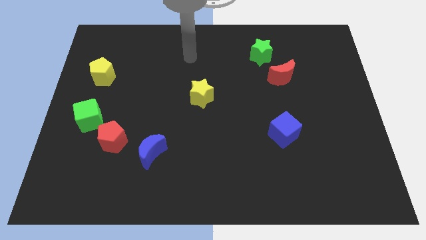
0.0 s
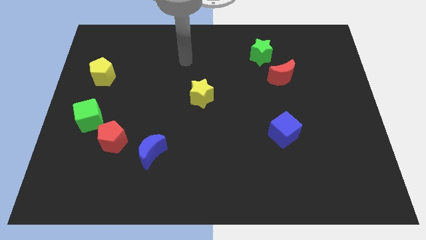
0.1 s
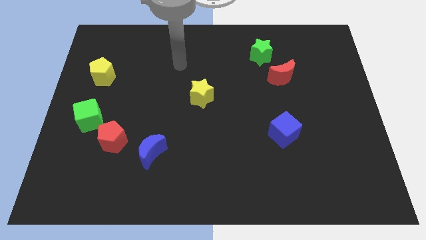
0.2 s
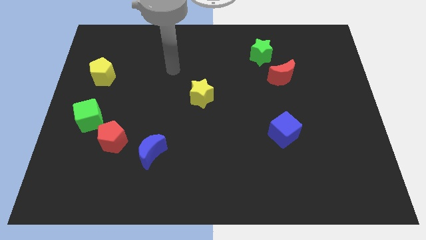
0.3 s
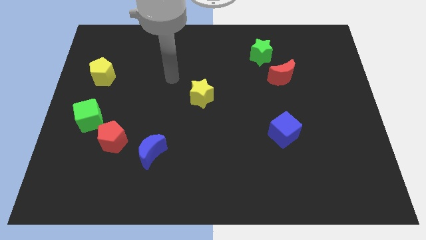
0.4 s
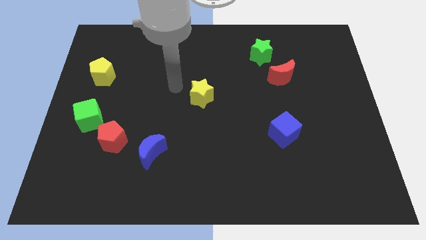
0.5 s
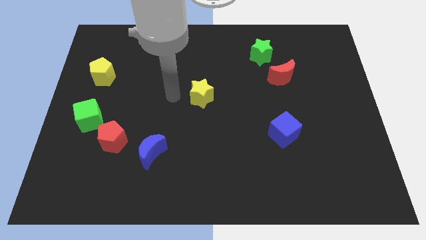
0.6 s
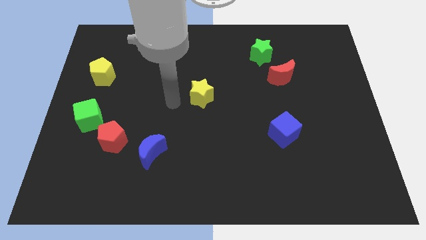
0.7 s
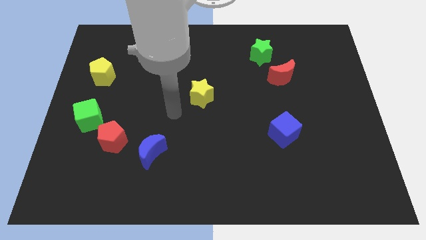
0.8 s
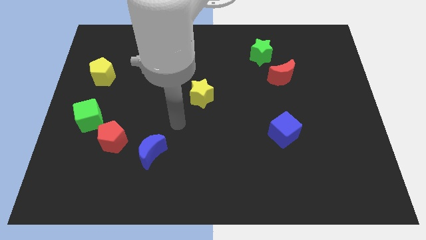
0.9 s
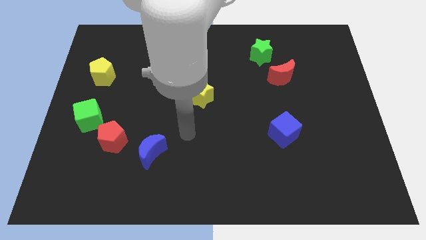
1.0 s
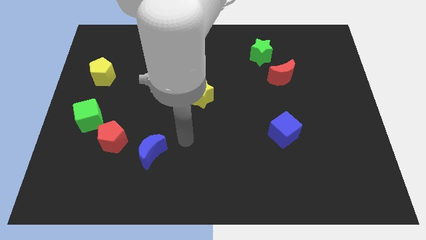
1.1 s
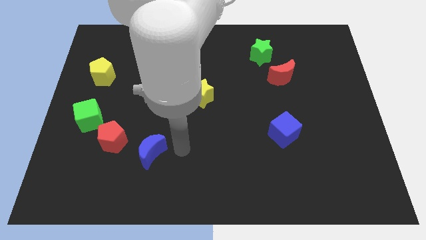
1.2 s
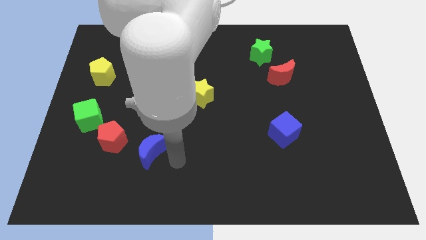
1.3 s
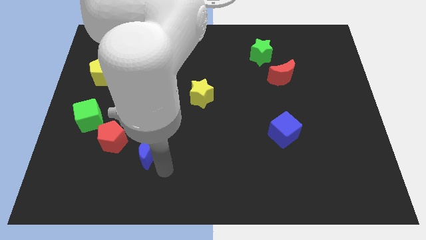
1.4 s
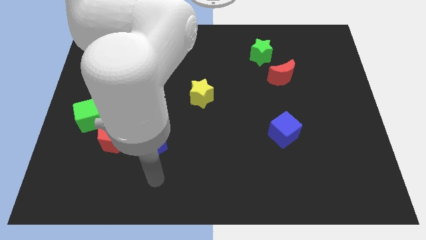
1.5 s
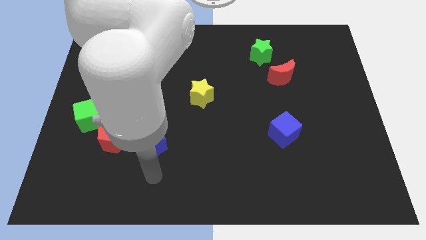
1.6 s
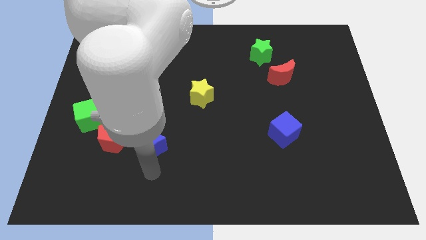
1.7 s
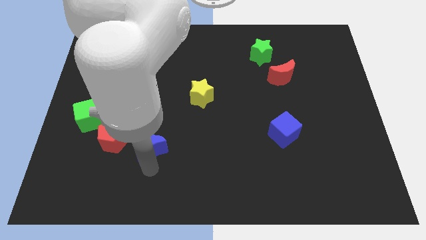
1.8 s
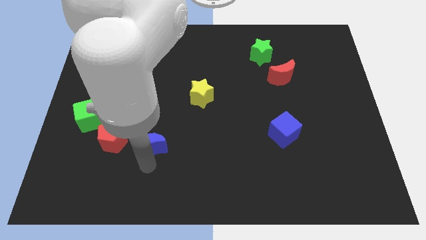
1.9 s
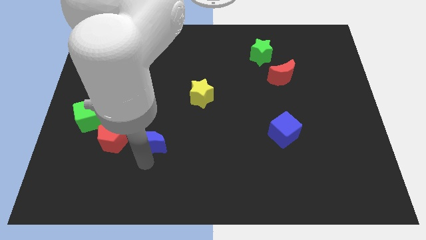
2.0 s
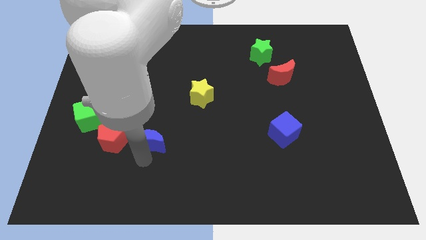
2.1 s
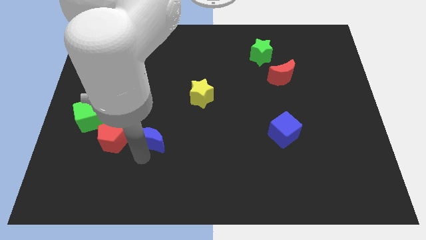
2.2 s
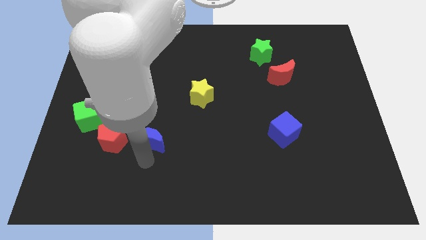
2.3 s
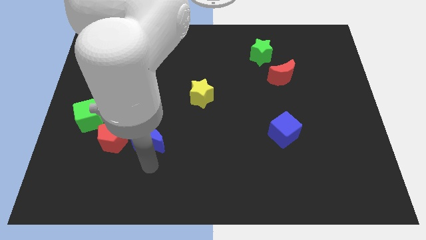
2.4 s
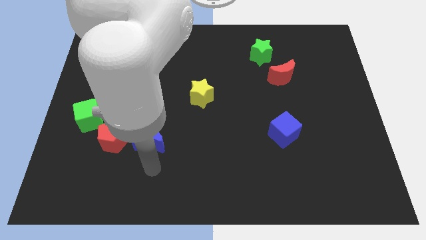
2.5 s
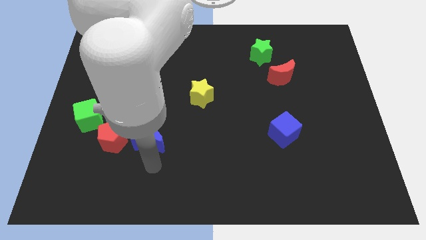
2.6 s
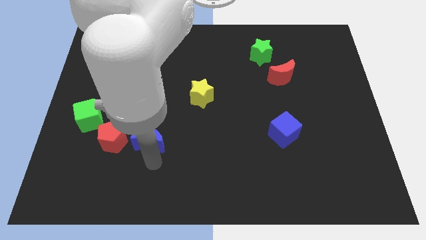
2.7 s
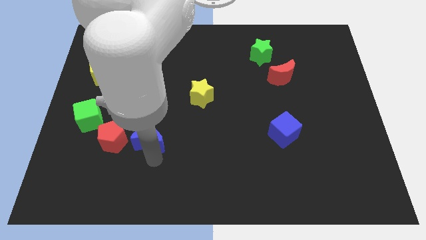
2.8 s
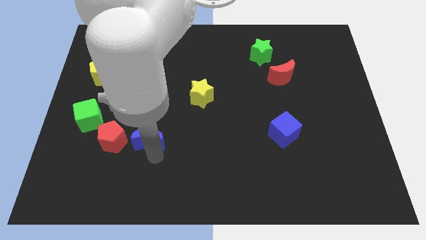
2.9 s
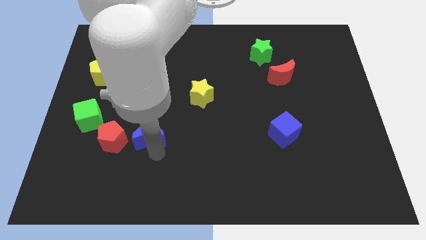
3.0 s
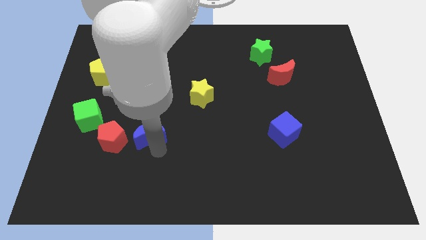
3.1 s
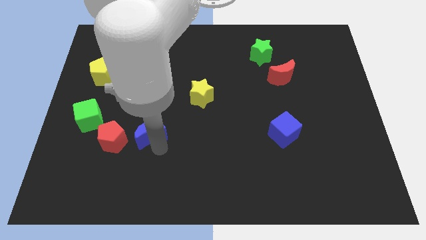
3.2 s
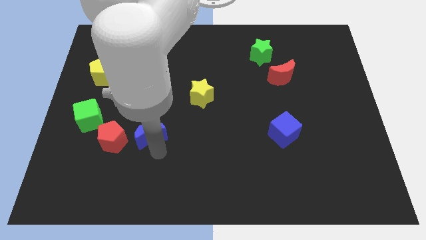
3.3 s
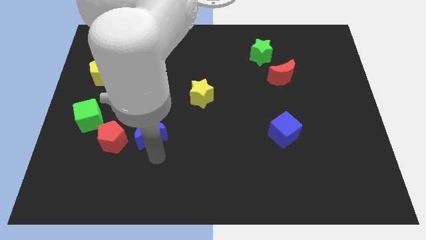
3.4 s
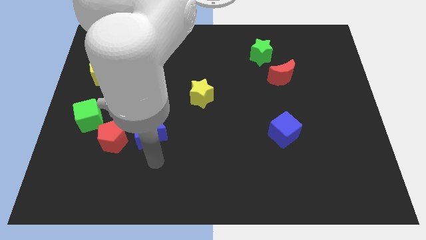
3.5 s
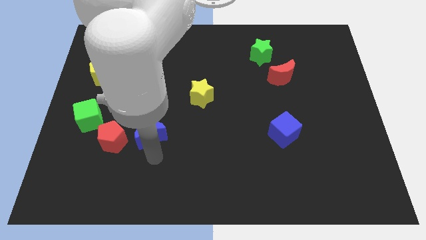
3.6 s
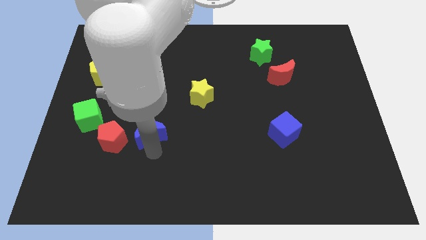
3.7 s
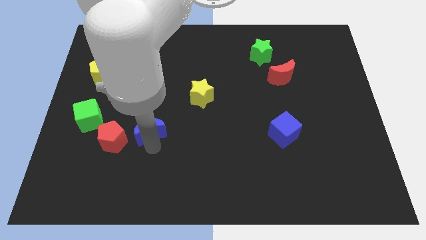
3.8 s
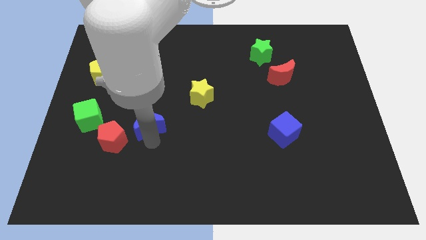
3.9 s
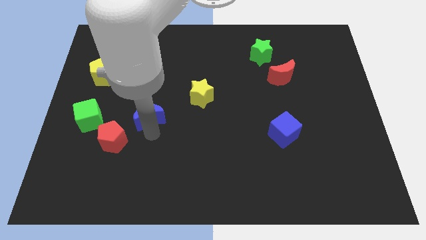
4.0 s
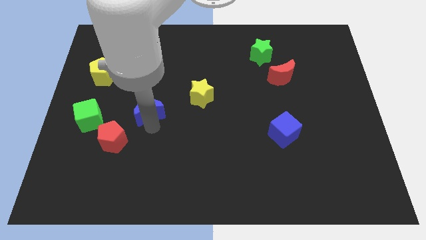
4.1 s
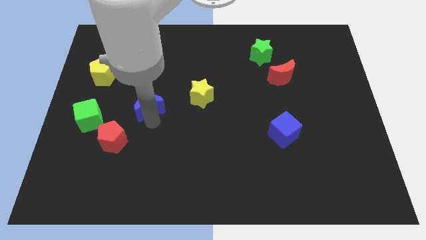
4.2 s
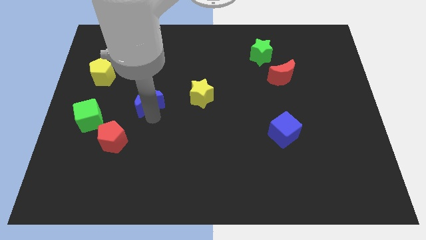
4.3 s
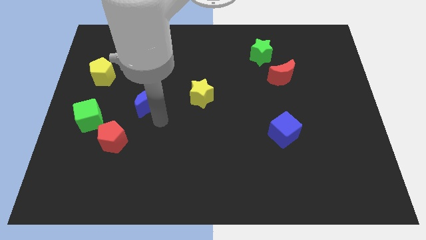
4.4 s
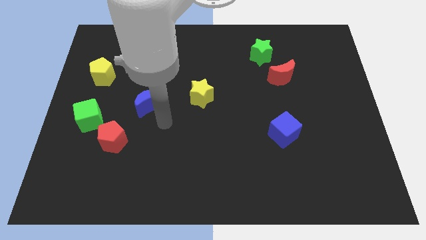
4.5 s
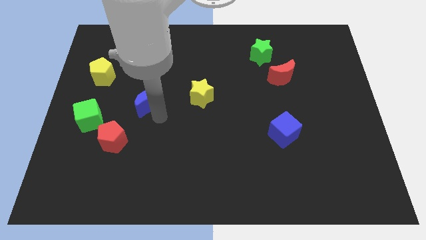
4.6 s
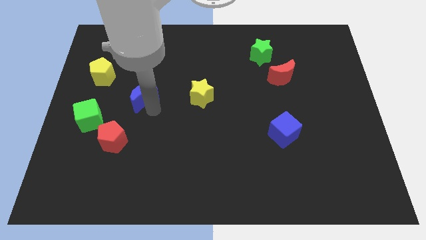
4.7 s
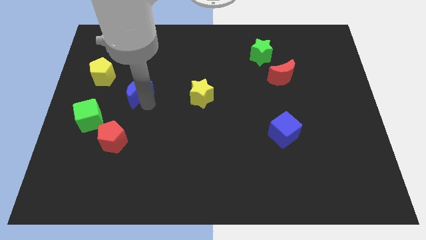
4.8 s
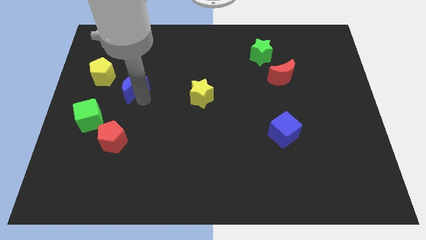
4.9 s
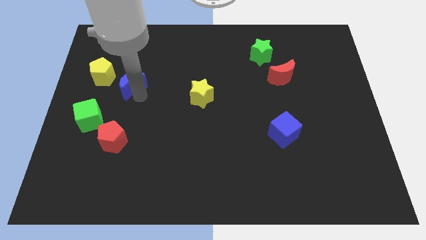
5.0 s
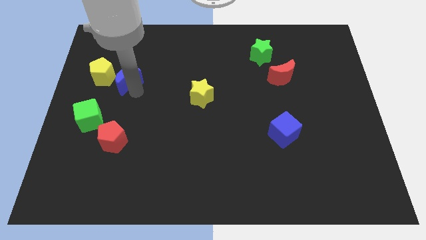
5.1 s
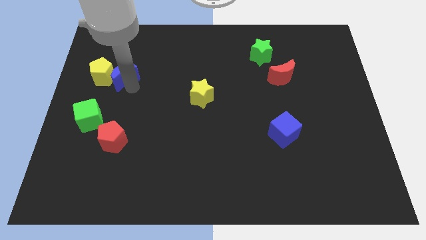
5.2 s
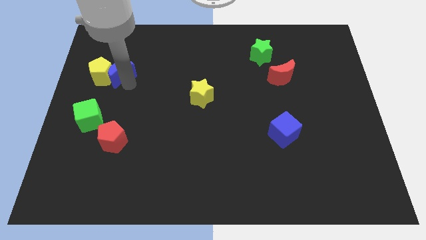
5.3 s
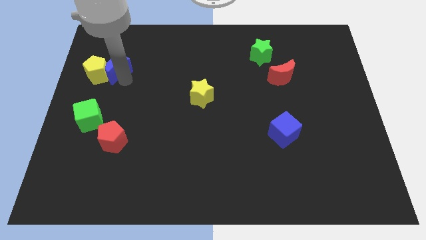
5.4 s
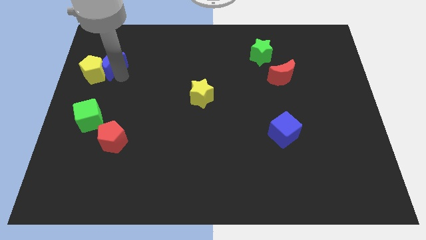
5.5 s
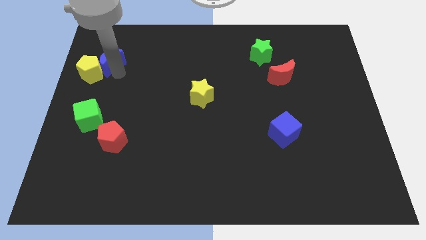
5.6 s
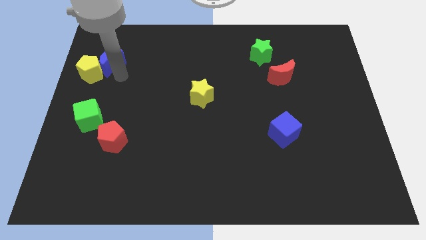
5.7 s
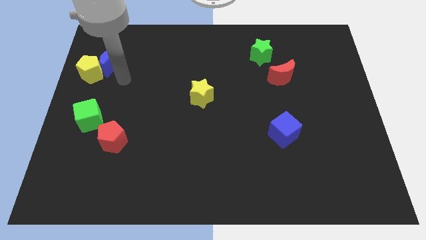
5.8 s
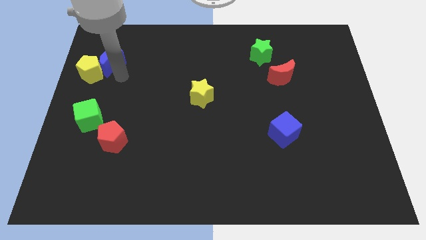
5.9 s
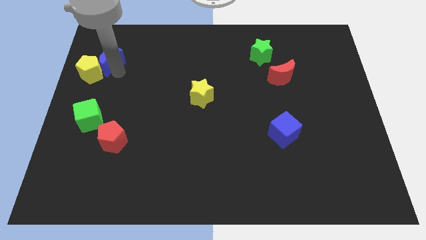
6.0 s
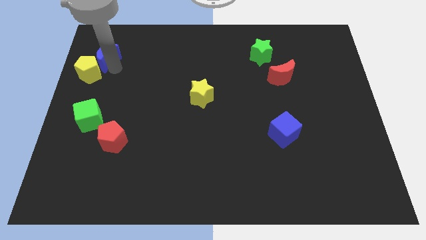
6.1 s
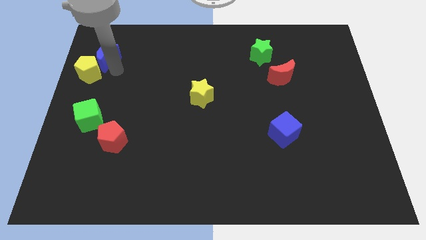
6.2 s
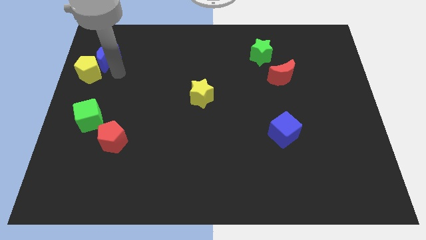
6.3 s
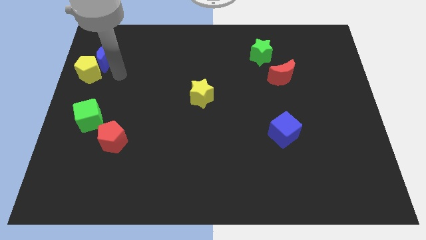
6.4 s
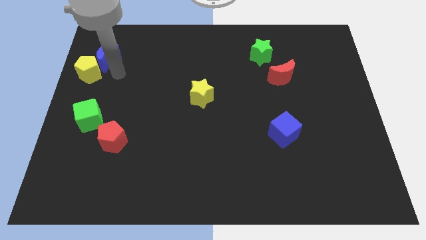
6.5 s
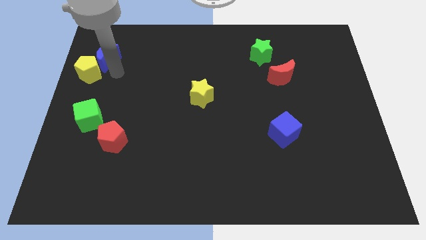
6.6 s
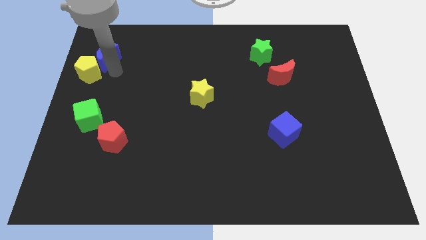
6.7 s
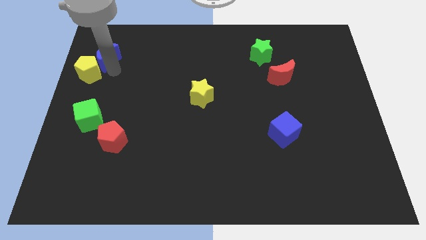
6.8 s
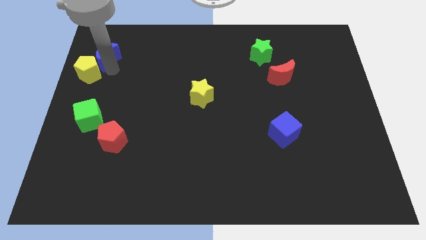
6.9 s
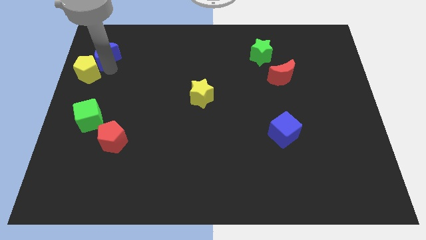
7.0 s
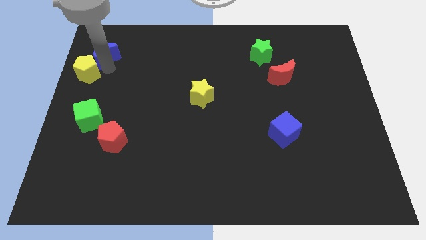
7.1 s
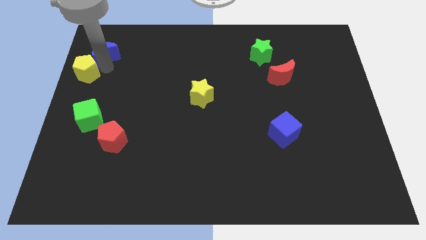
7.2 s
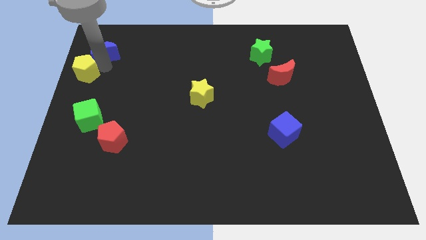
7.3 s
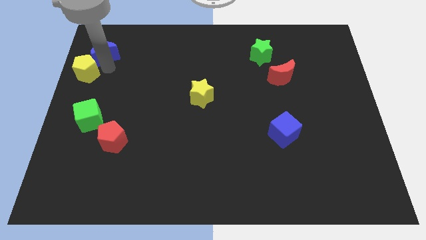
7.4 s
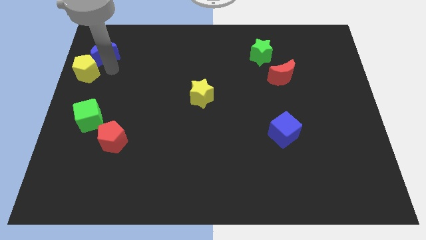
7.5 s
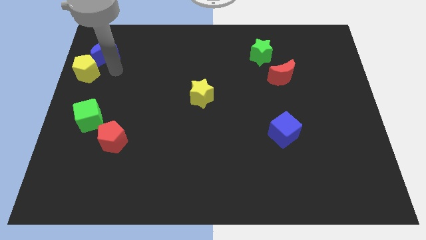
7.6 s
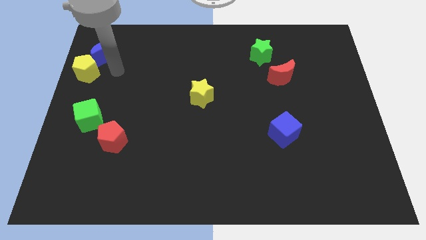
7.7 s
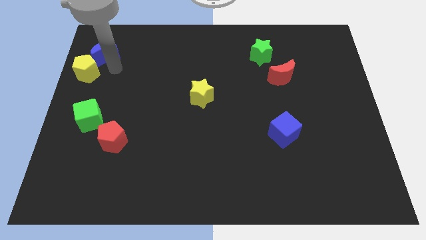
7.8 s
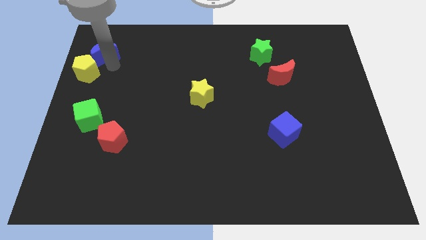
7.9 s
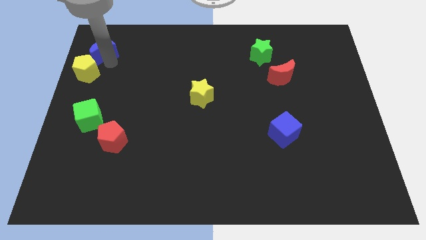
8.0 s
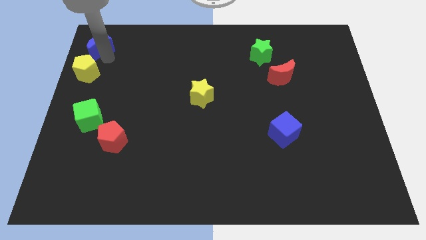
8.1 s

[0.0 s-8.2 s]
put the blue moon to the top left of the board
